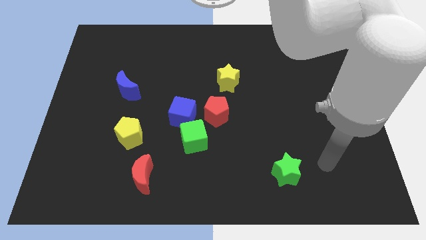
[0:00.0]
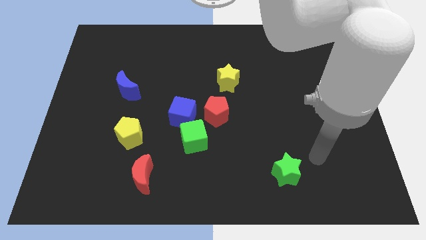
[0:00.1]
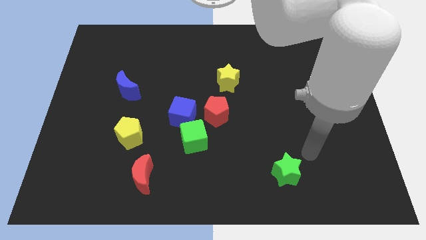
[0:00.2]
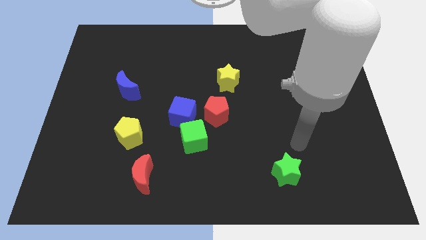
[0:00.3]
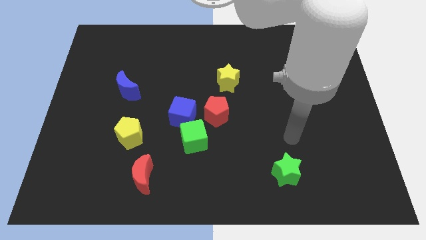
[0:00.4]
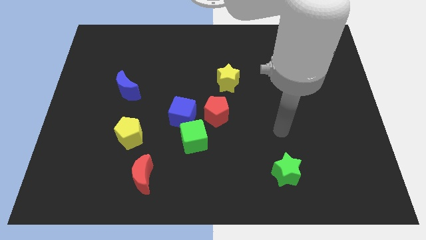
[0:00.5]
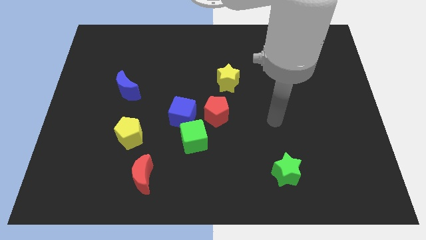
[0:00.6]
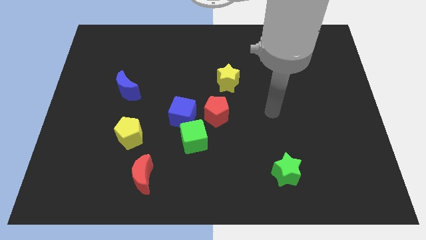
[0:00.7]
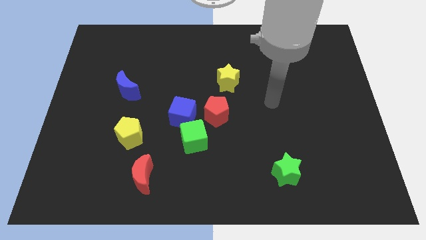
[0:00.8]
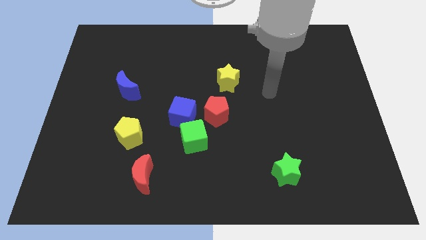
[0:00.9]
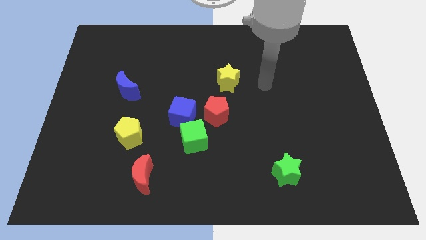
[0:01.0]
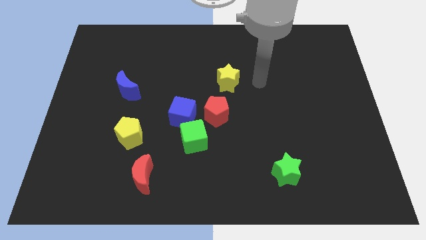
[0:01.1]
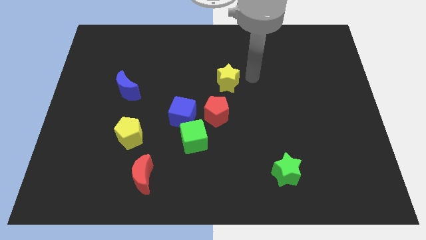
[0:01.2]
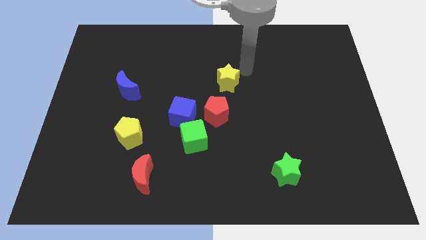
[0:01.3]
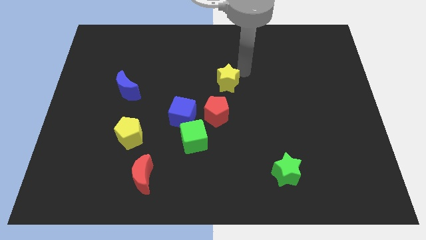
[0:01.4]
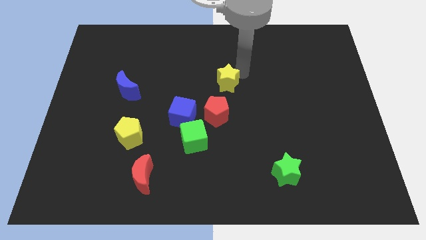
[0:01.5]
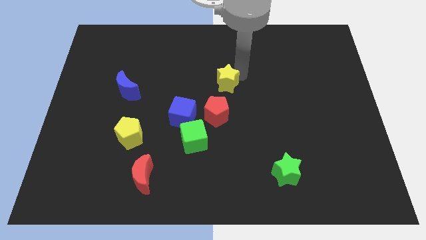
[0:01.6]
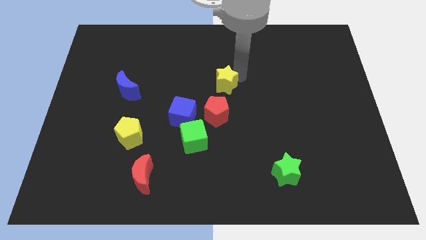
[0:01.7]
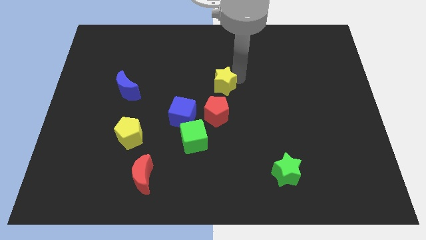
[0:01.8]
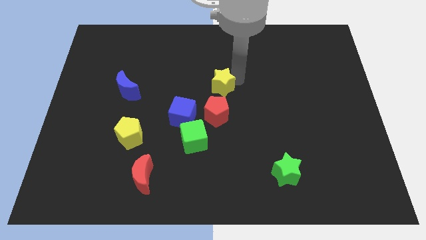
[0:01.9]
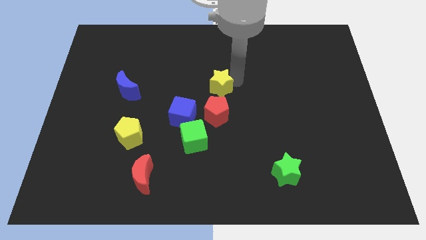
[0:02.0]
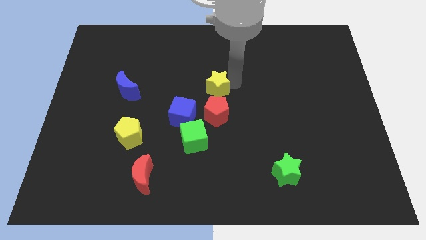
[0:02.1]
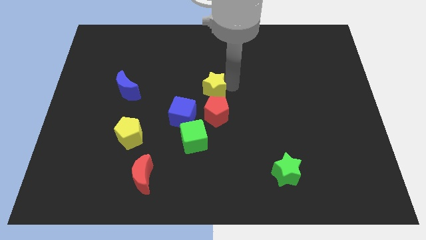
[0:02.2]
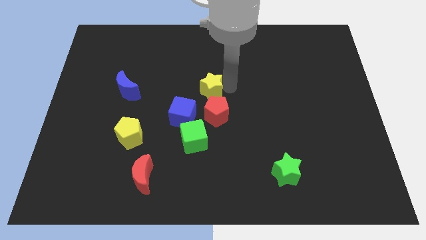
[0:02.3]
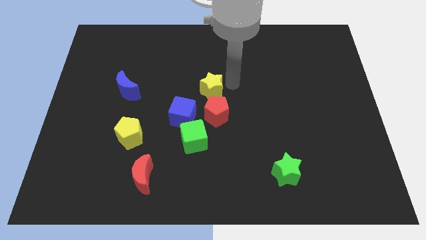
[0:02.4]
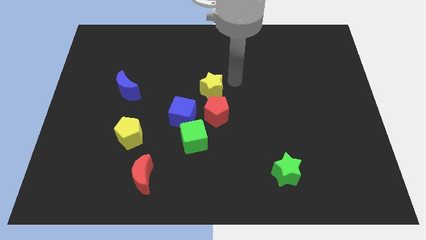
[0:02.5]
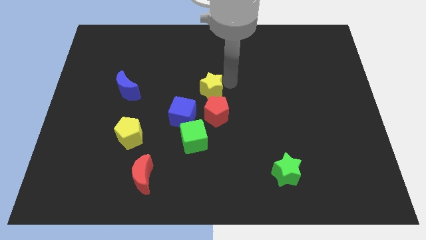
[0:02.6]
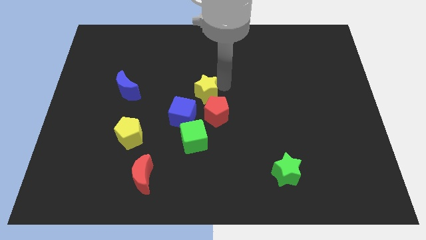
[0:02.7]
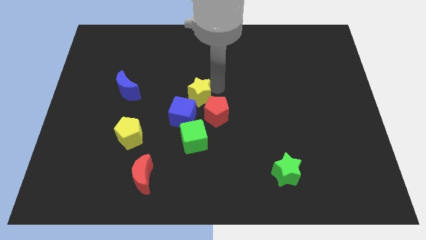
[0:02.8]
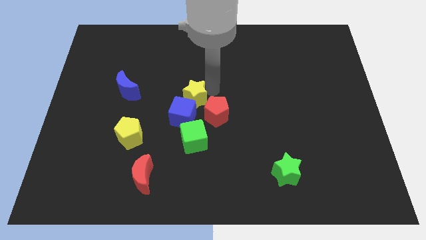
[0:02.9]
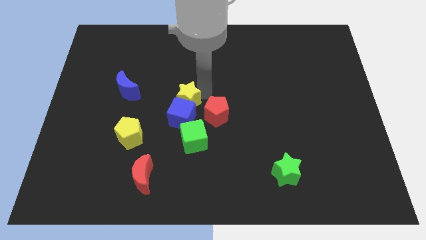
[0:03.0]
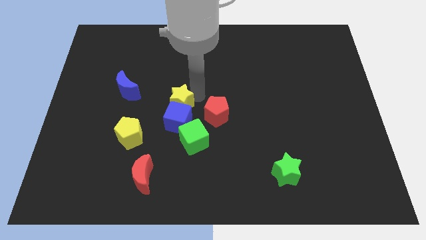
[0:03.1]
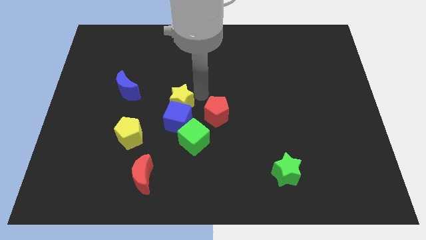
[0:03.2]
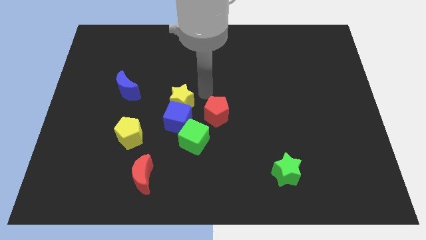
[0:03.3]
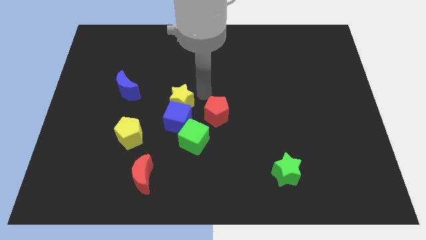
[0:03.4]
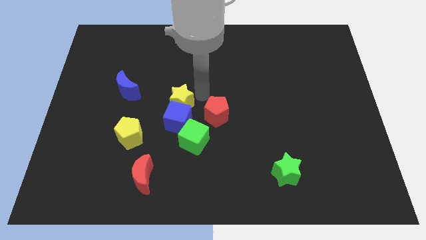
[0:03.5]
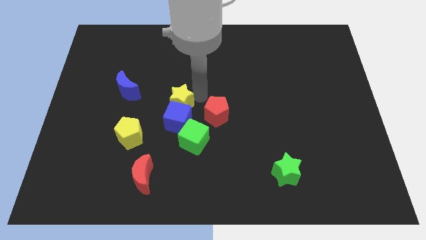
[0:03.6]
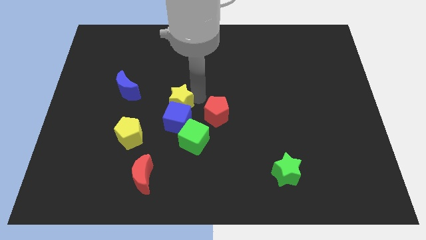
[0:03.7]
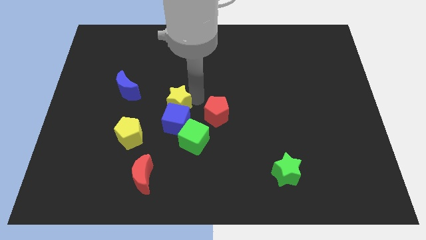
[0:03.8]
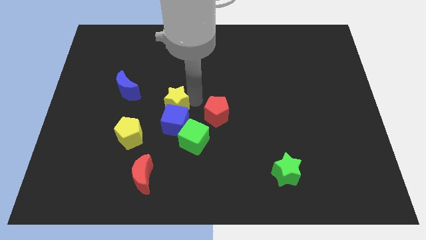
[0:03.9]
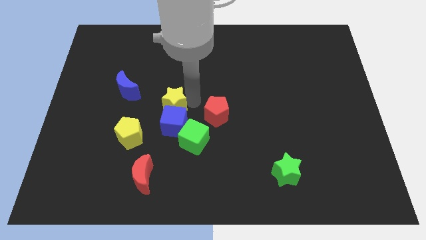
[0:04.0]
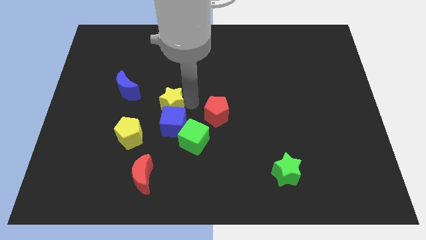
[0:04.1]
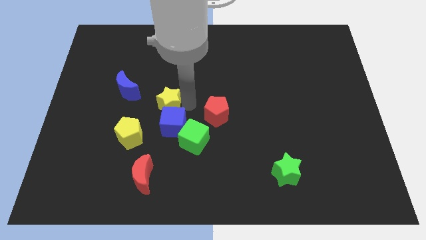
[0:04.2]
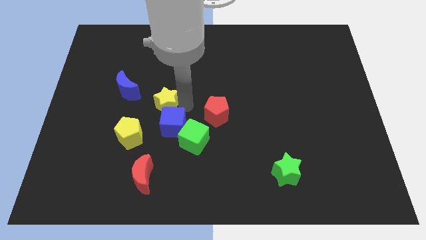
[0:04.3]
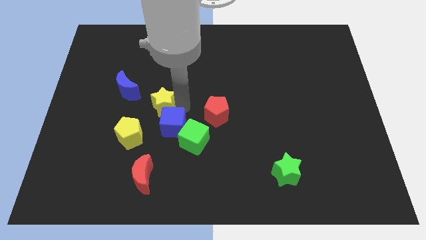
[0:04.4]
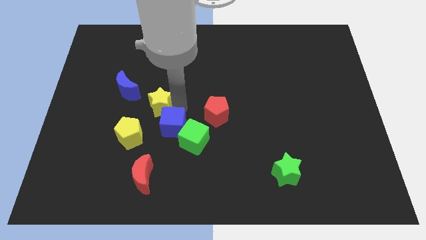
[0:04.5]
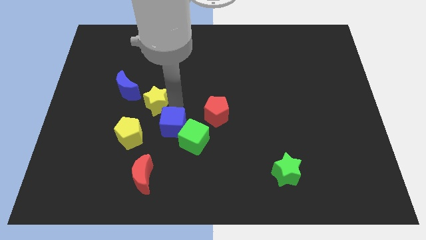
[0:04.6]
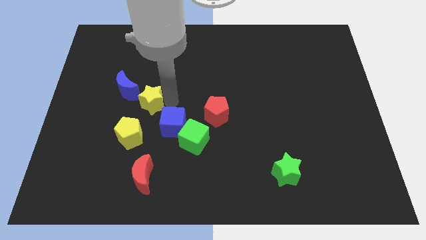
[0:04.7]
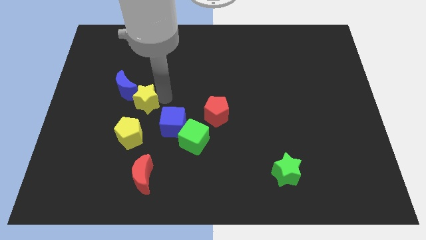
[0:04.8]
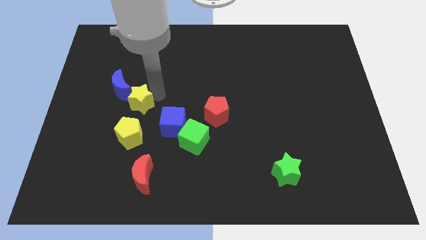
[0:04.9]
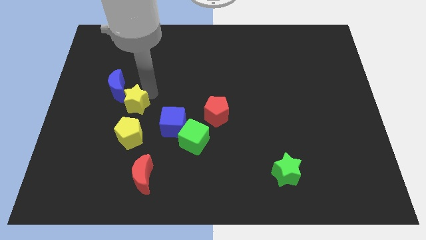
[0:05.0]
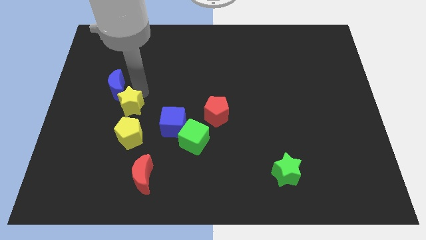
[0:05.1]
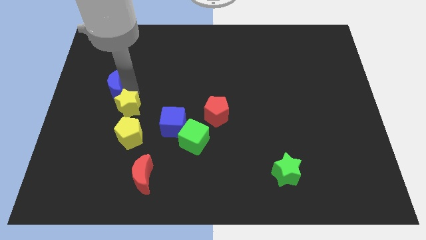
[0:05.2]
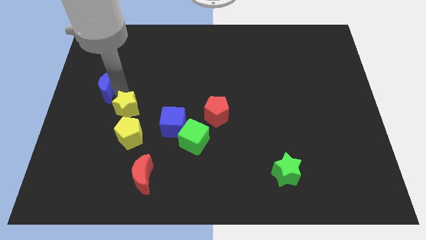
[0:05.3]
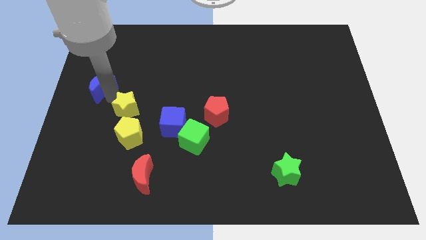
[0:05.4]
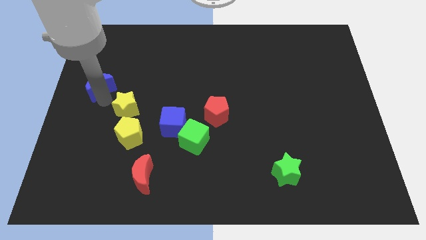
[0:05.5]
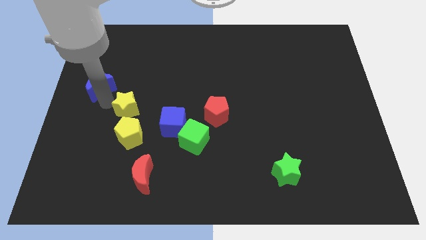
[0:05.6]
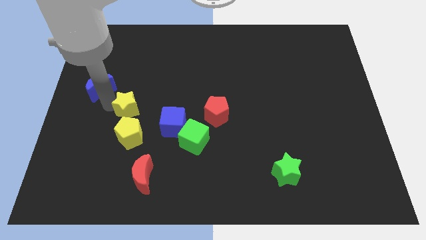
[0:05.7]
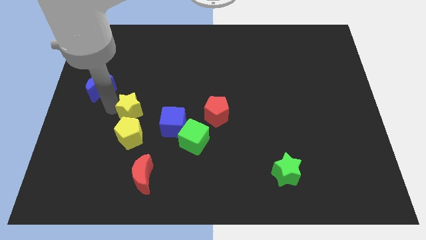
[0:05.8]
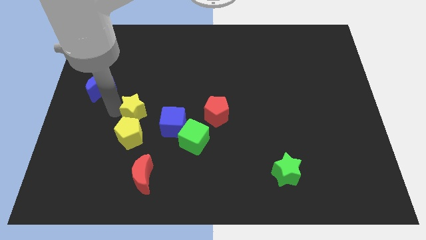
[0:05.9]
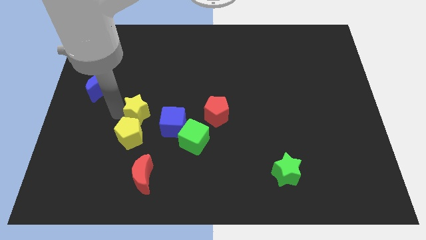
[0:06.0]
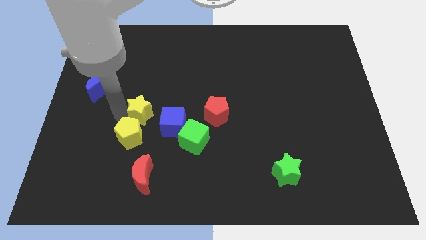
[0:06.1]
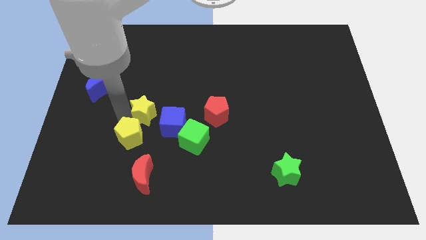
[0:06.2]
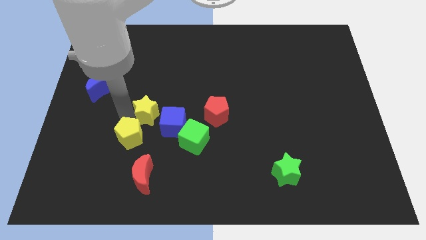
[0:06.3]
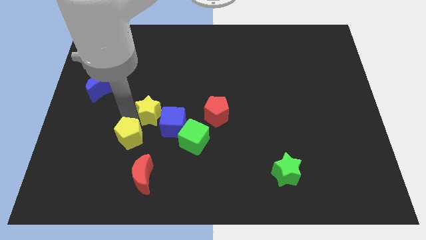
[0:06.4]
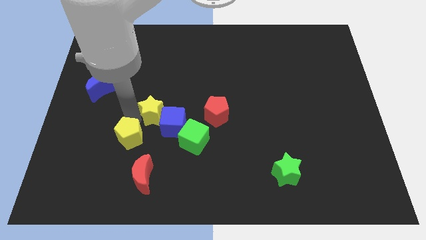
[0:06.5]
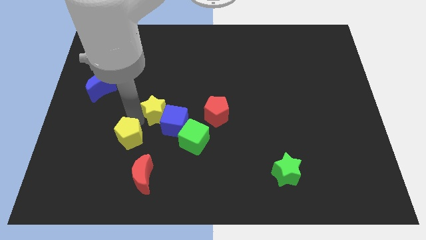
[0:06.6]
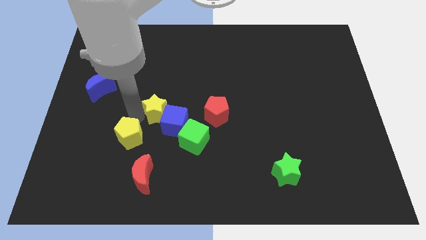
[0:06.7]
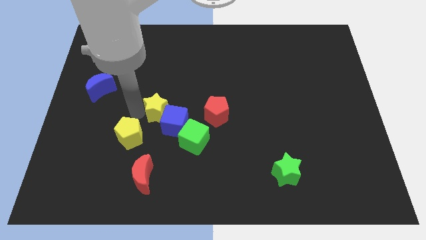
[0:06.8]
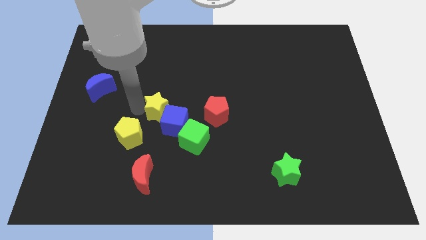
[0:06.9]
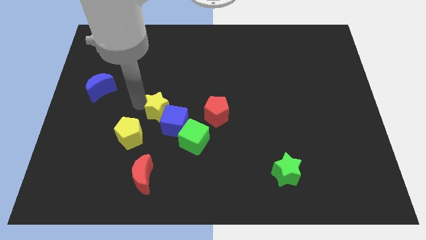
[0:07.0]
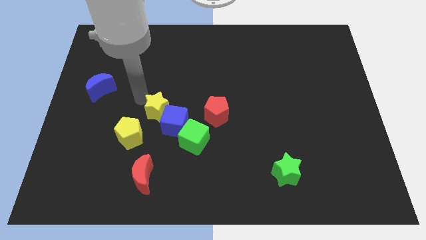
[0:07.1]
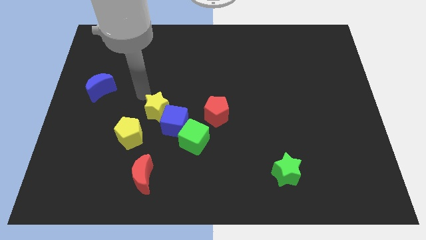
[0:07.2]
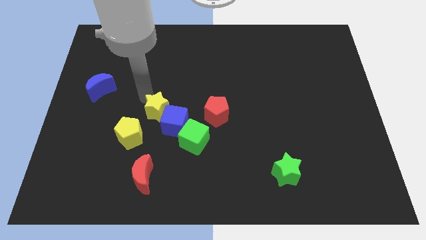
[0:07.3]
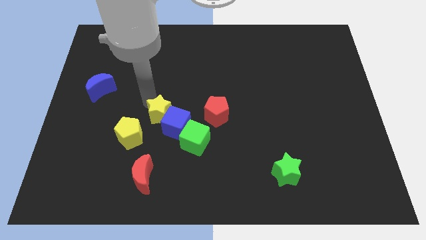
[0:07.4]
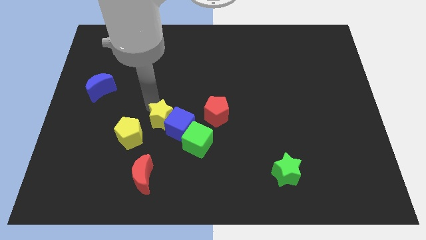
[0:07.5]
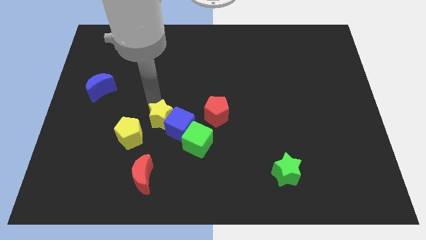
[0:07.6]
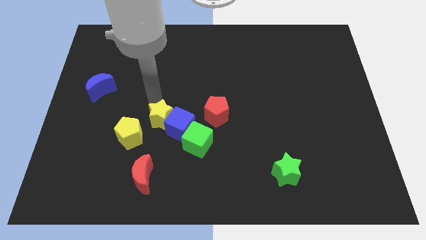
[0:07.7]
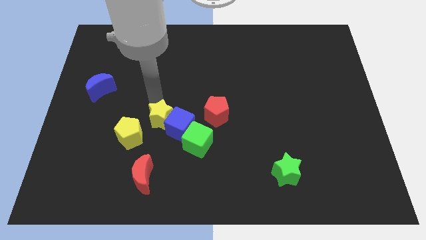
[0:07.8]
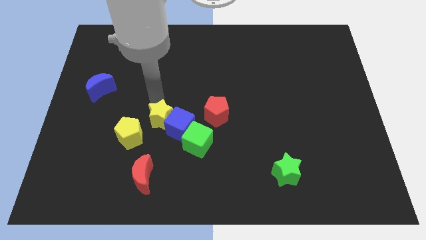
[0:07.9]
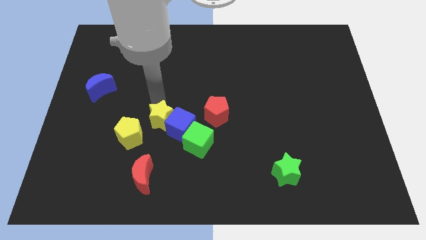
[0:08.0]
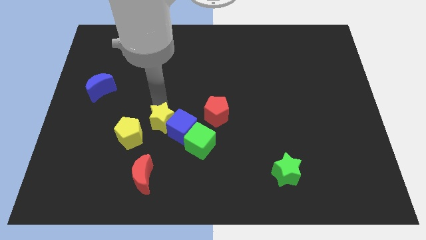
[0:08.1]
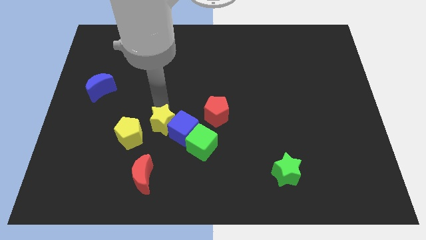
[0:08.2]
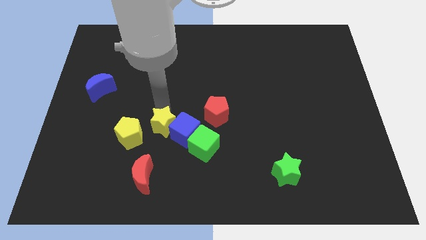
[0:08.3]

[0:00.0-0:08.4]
slide the yellow star diagonally downwards and to the left
